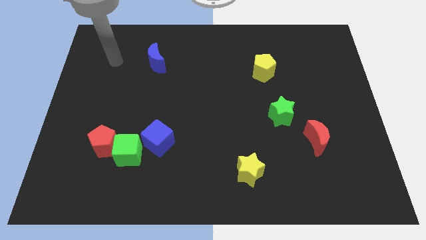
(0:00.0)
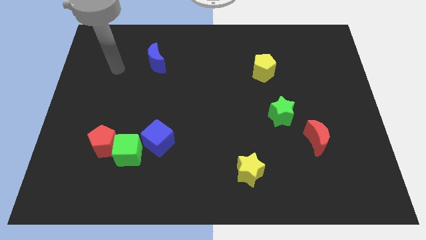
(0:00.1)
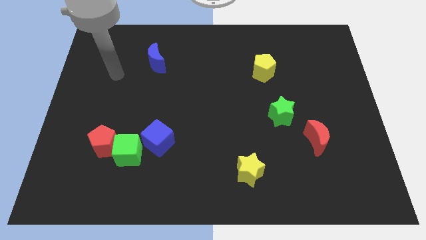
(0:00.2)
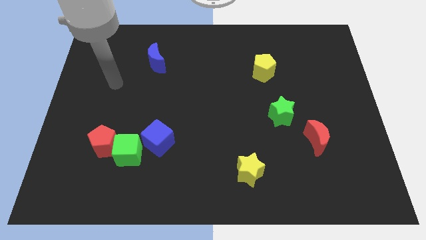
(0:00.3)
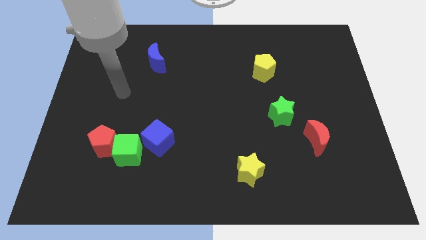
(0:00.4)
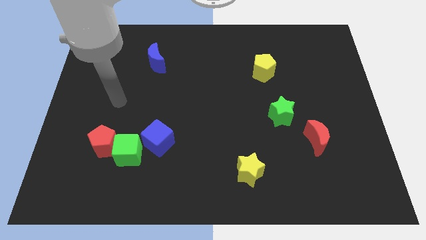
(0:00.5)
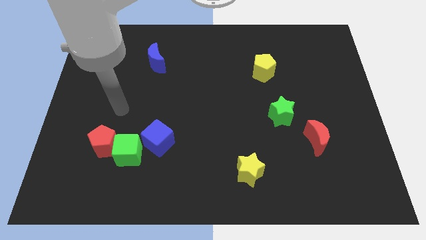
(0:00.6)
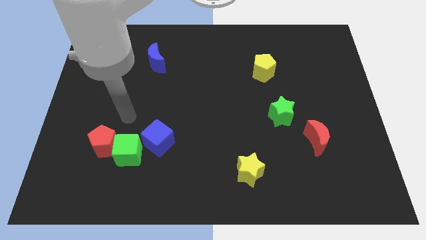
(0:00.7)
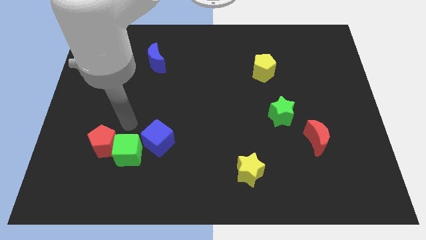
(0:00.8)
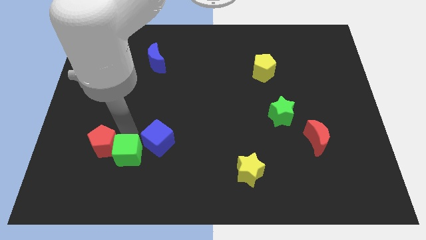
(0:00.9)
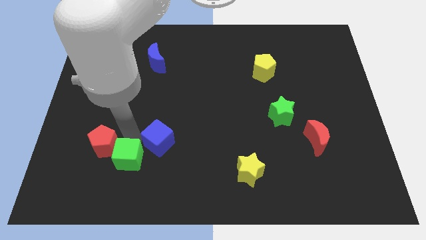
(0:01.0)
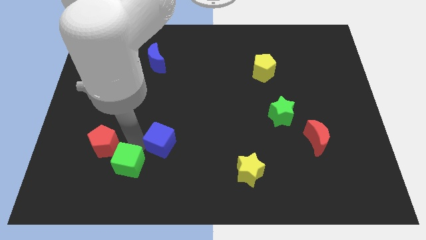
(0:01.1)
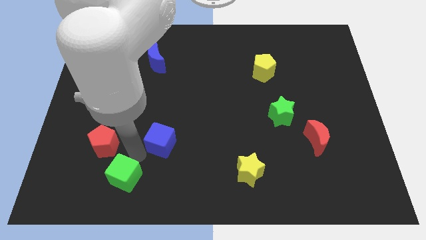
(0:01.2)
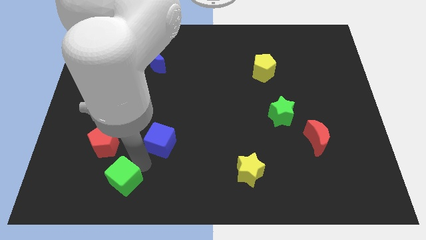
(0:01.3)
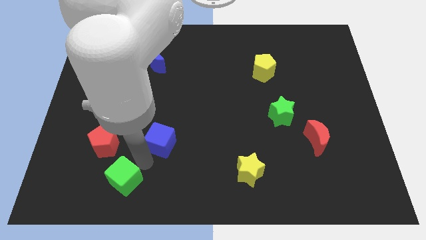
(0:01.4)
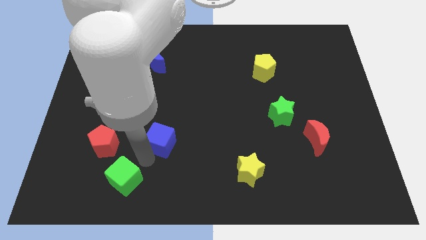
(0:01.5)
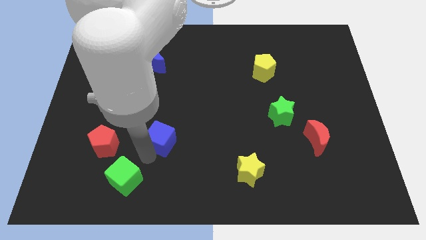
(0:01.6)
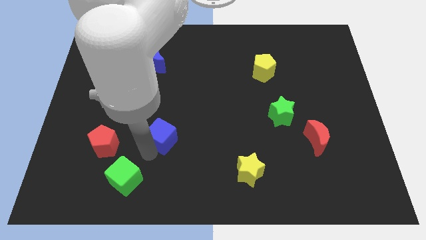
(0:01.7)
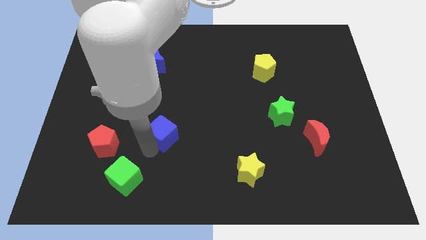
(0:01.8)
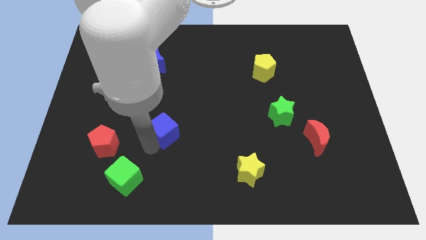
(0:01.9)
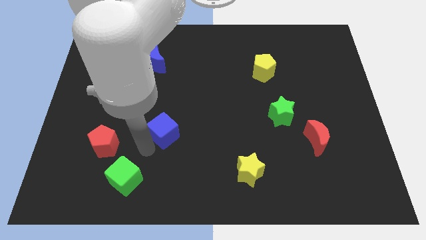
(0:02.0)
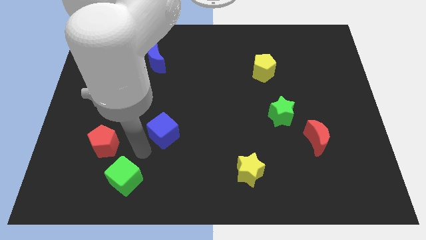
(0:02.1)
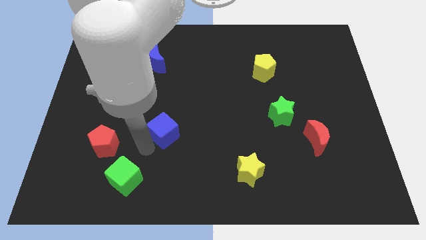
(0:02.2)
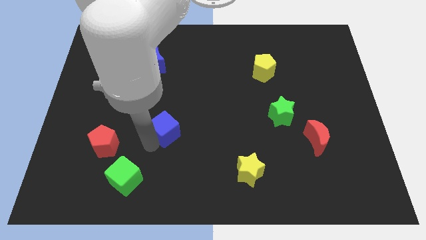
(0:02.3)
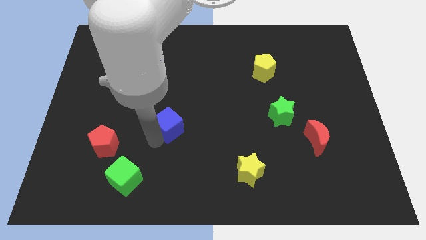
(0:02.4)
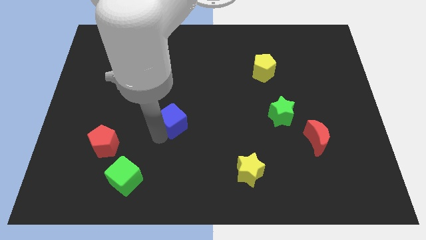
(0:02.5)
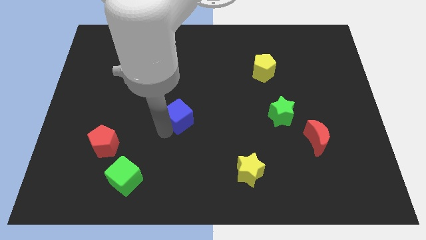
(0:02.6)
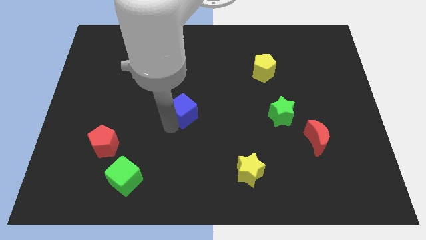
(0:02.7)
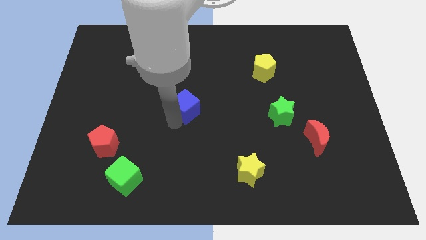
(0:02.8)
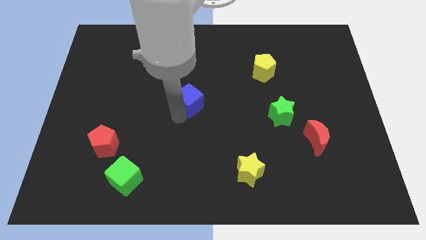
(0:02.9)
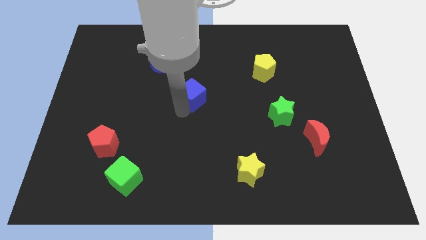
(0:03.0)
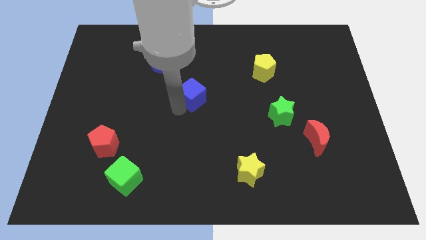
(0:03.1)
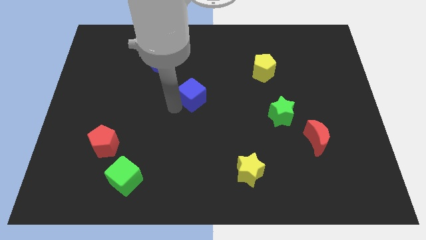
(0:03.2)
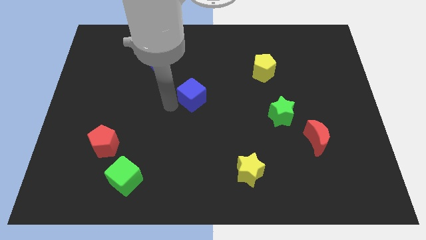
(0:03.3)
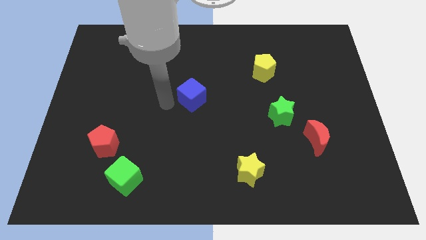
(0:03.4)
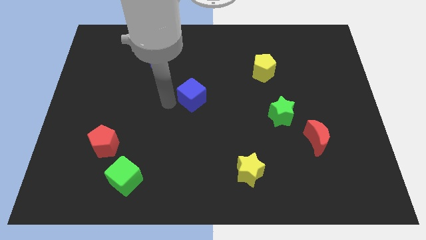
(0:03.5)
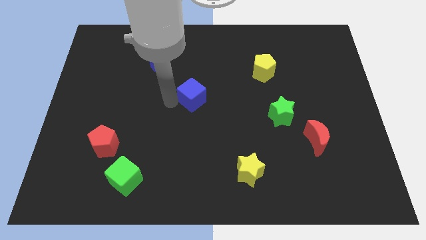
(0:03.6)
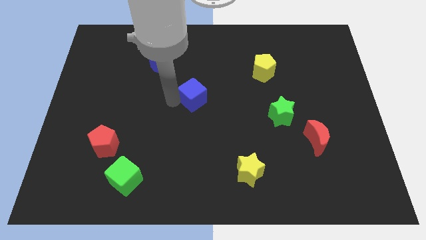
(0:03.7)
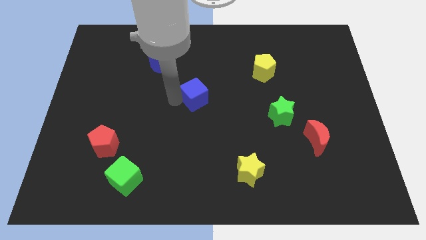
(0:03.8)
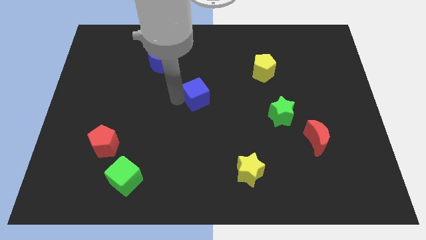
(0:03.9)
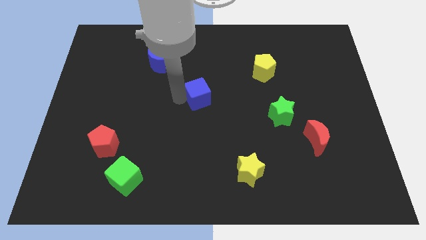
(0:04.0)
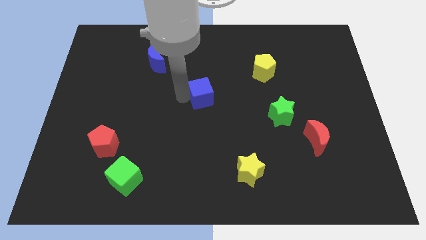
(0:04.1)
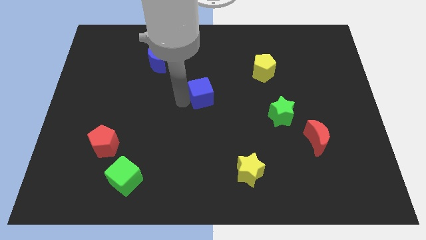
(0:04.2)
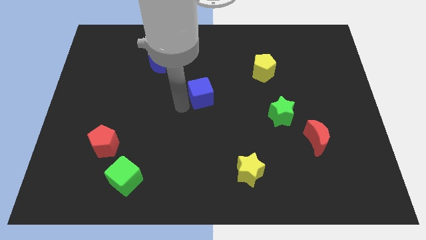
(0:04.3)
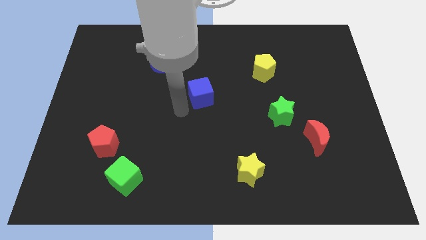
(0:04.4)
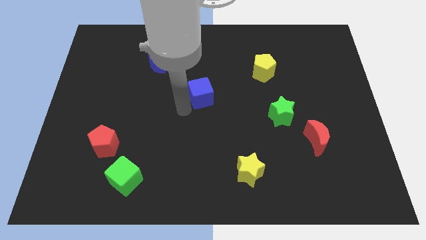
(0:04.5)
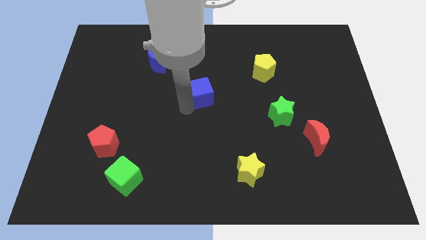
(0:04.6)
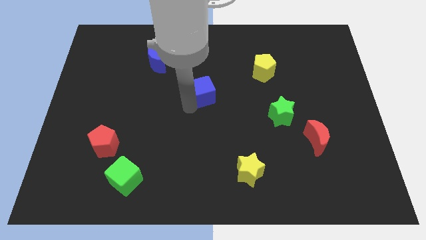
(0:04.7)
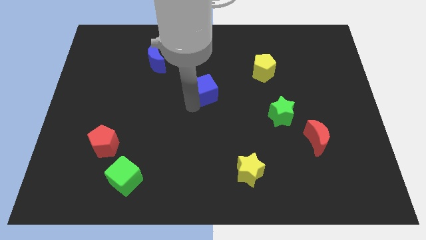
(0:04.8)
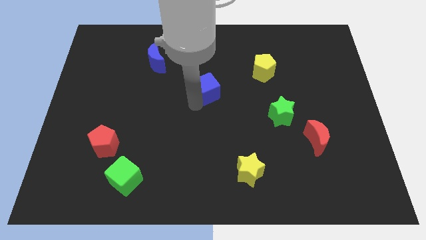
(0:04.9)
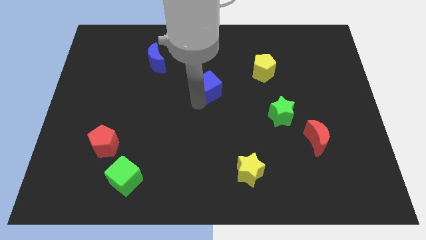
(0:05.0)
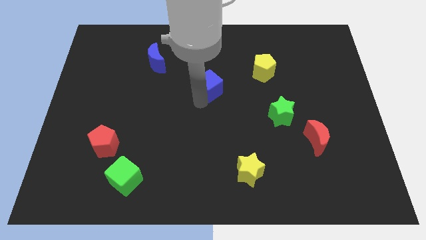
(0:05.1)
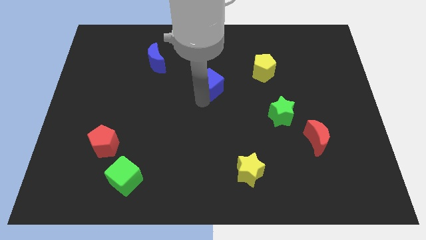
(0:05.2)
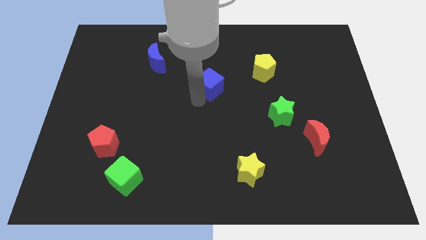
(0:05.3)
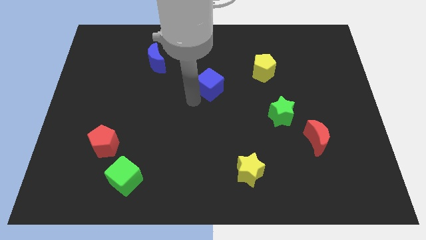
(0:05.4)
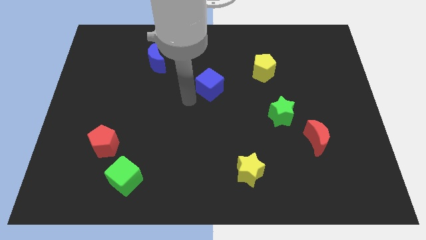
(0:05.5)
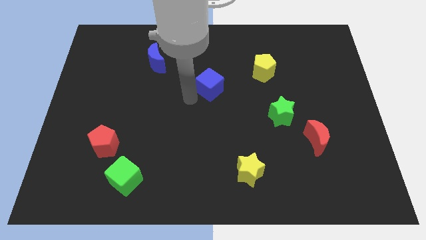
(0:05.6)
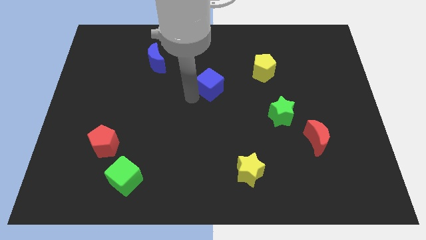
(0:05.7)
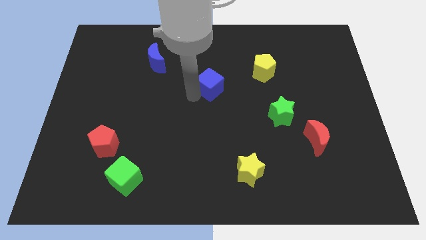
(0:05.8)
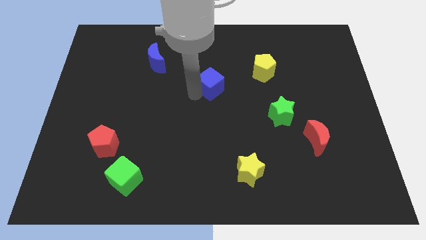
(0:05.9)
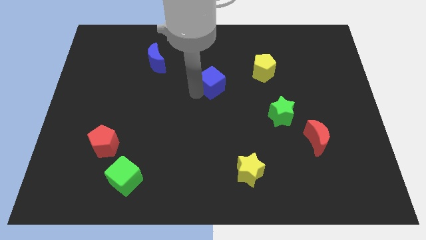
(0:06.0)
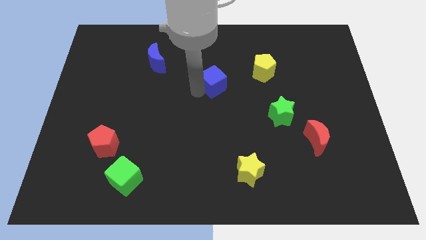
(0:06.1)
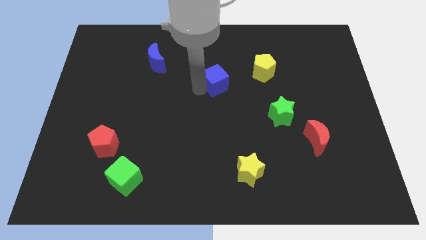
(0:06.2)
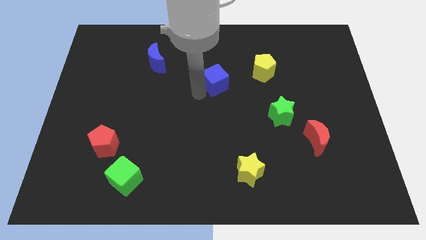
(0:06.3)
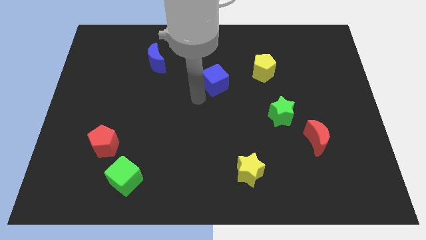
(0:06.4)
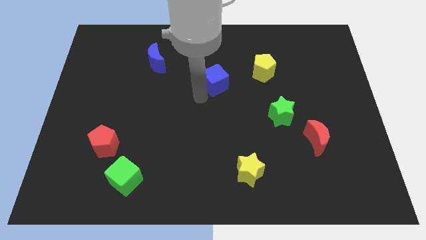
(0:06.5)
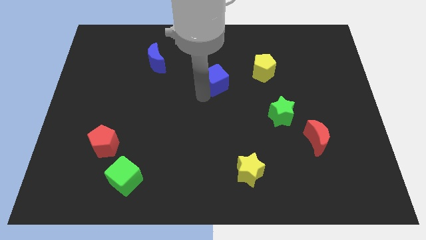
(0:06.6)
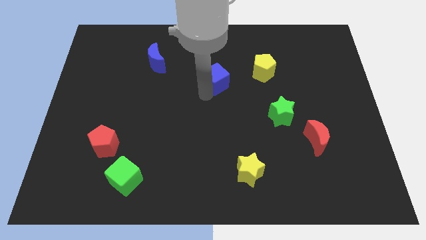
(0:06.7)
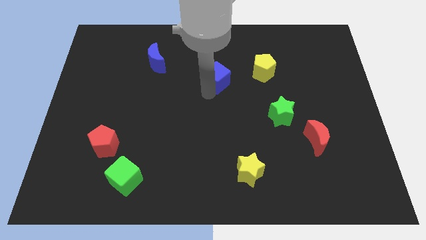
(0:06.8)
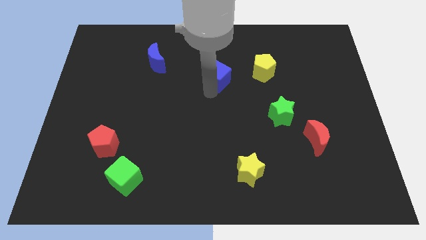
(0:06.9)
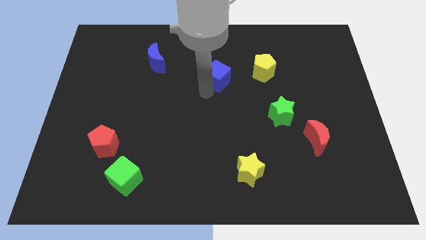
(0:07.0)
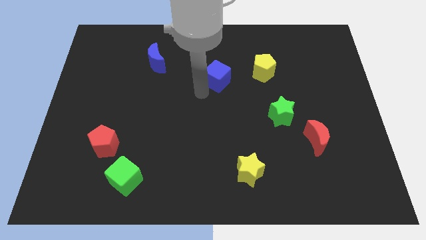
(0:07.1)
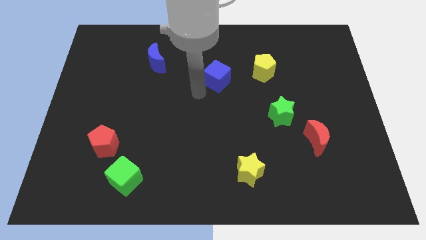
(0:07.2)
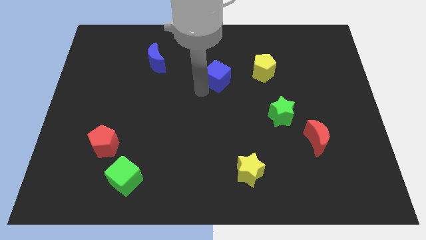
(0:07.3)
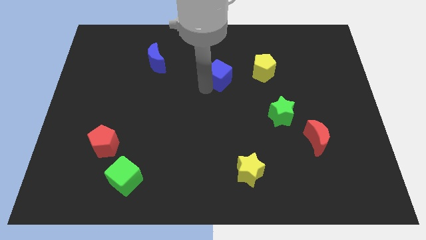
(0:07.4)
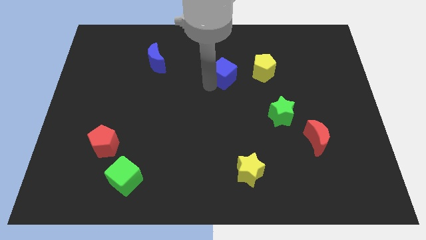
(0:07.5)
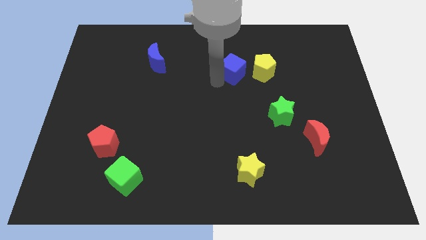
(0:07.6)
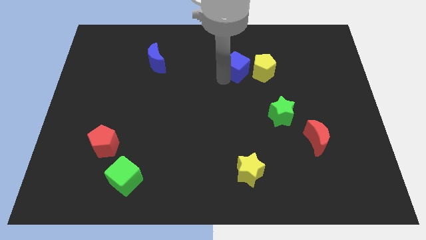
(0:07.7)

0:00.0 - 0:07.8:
put the blue cube to the top left of the yellow pentagon

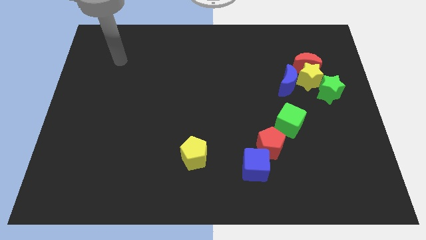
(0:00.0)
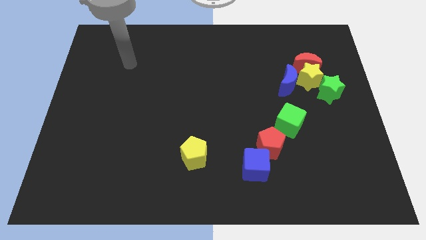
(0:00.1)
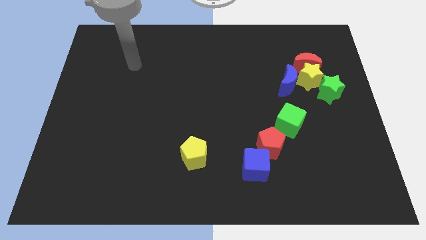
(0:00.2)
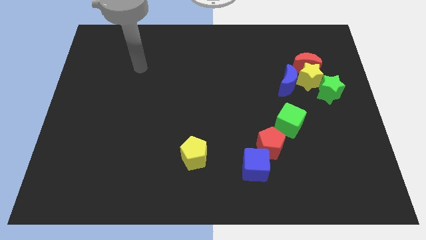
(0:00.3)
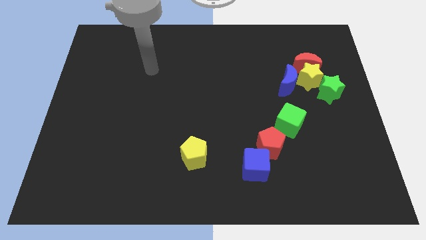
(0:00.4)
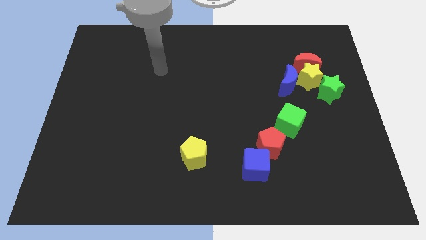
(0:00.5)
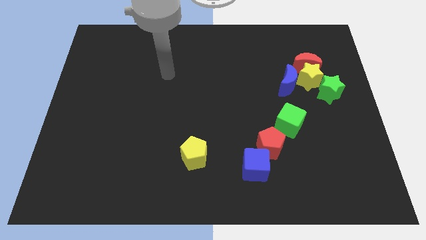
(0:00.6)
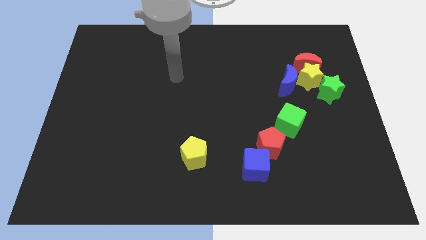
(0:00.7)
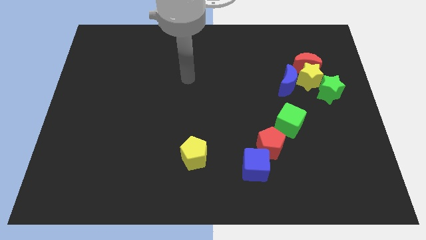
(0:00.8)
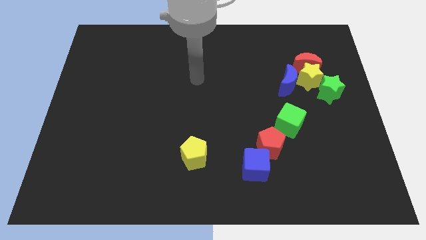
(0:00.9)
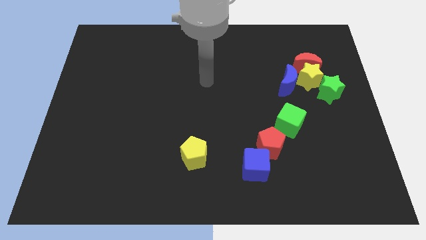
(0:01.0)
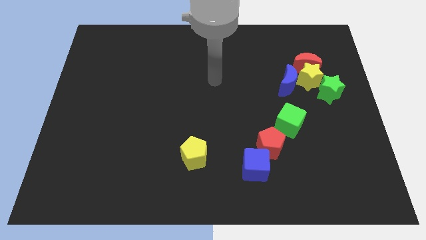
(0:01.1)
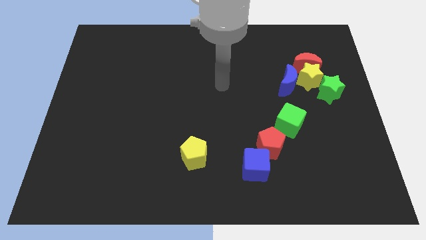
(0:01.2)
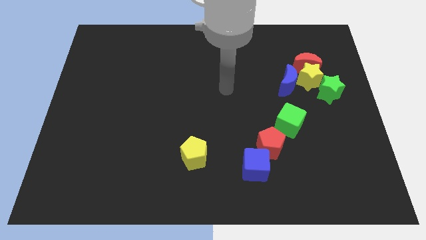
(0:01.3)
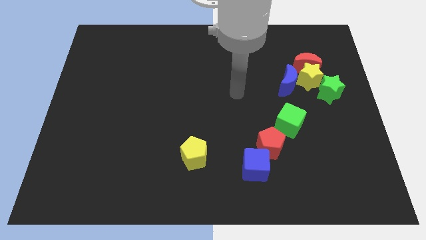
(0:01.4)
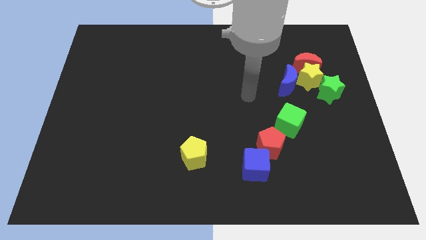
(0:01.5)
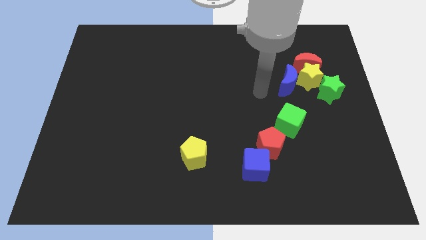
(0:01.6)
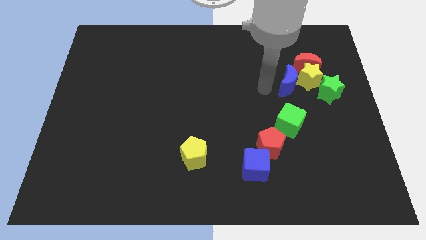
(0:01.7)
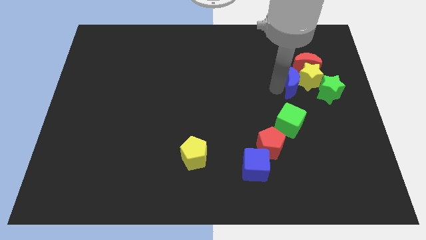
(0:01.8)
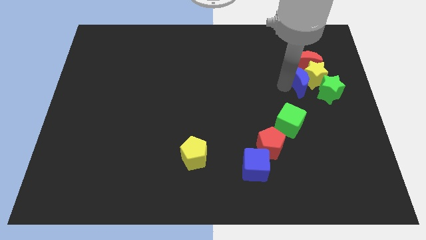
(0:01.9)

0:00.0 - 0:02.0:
move the yellow star to the top of the blue moon
